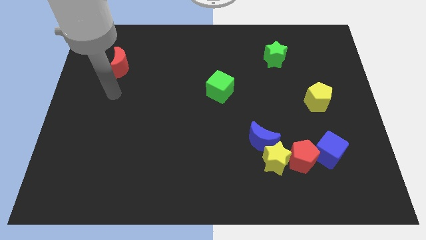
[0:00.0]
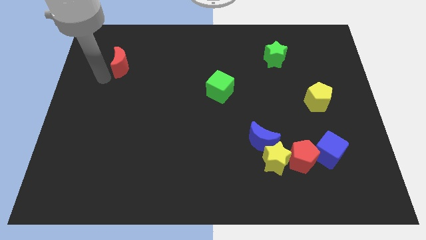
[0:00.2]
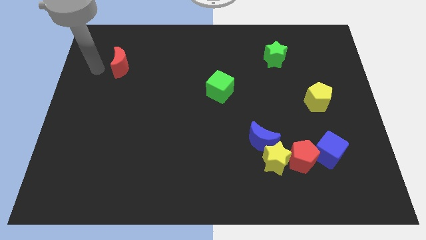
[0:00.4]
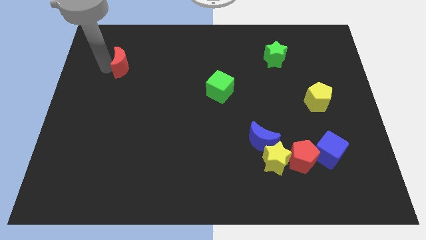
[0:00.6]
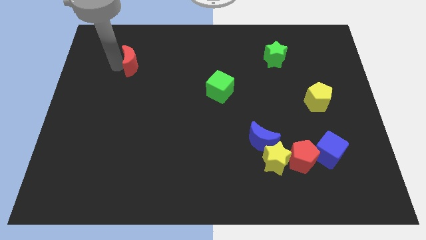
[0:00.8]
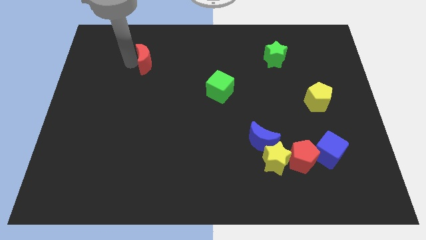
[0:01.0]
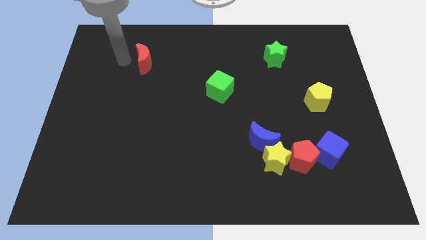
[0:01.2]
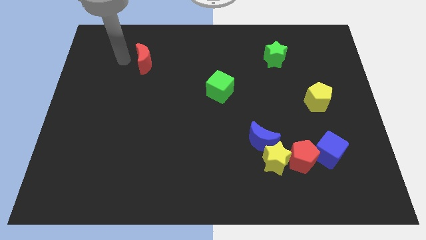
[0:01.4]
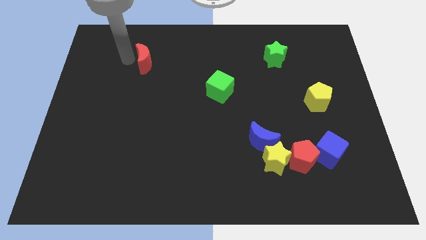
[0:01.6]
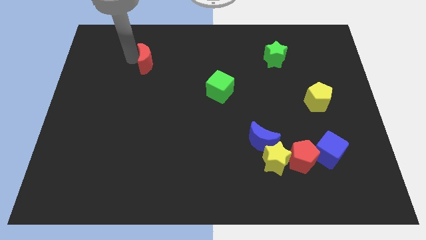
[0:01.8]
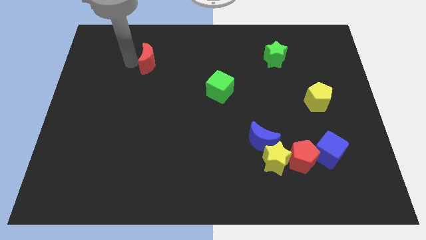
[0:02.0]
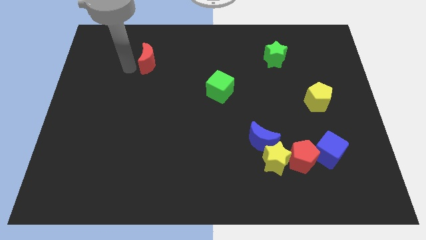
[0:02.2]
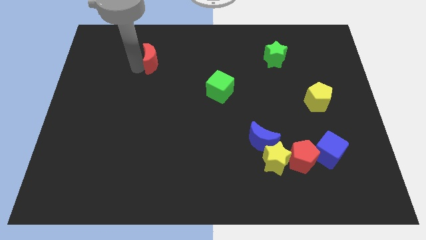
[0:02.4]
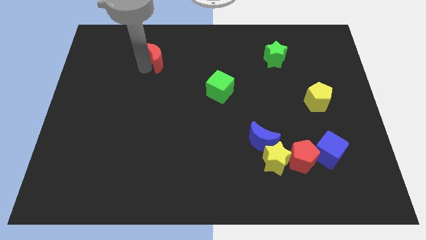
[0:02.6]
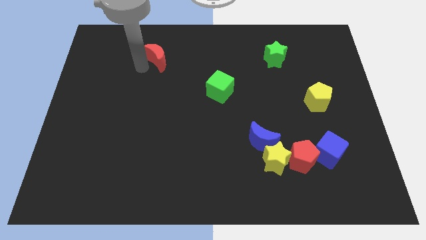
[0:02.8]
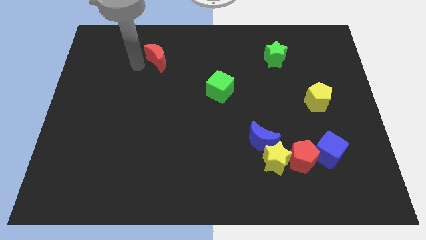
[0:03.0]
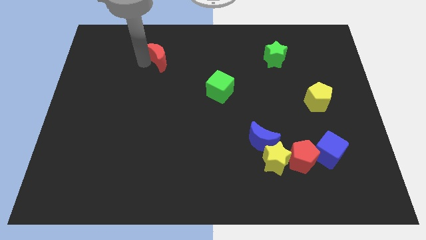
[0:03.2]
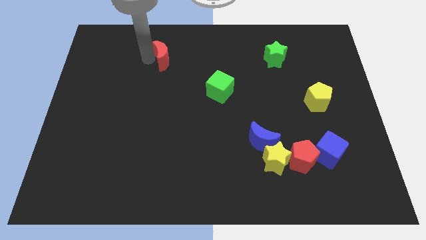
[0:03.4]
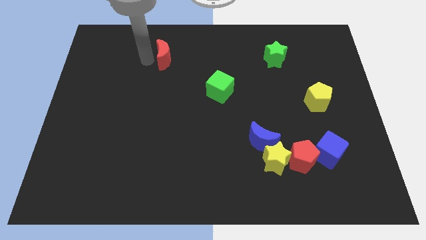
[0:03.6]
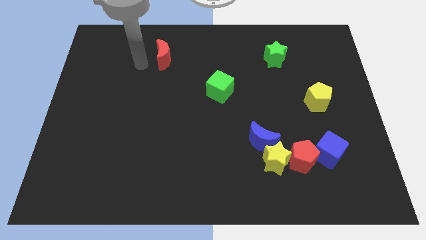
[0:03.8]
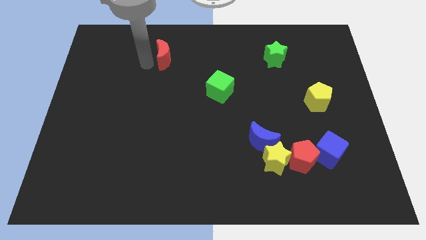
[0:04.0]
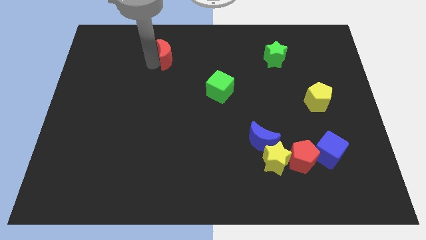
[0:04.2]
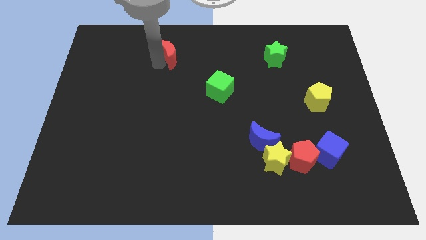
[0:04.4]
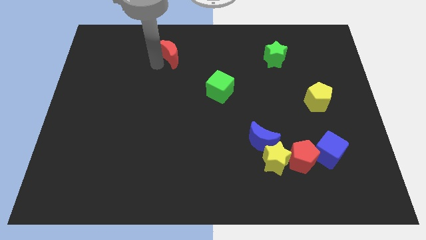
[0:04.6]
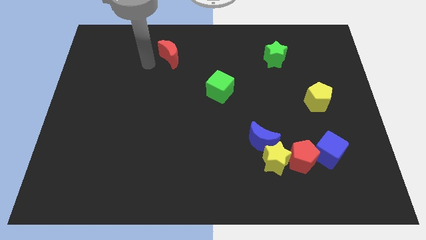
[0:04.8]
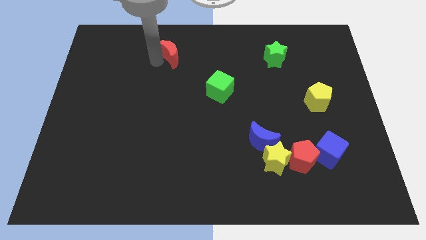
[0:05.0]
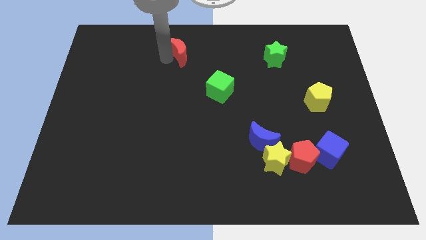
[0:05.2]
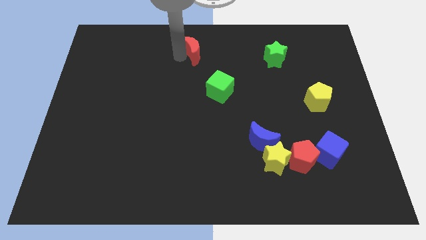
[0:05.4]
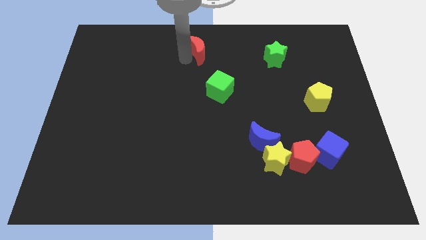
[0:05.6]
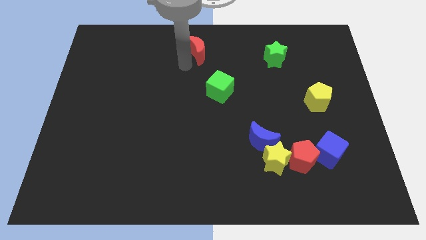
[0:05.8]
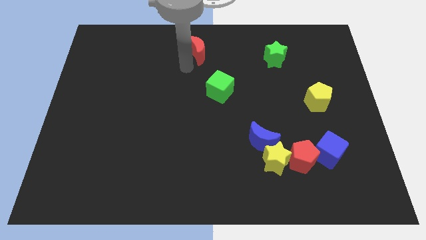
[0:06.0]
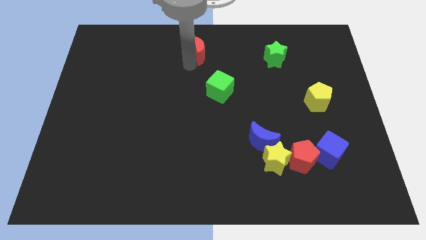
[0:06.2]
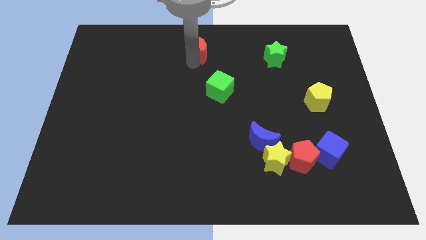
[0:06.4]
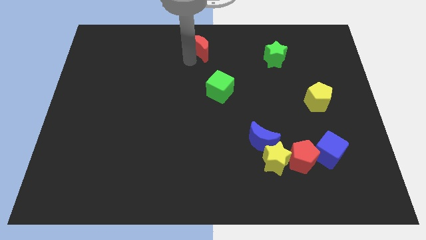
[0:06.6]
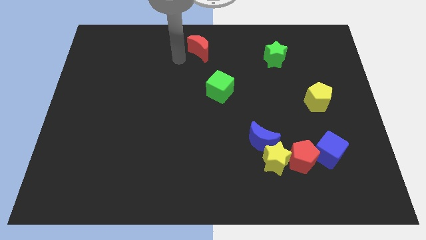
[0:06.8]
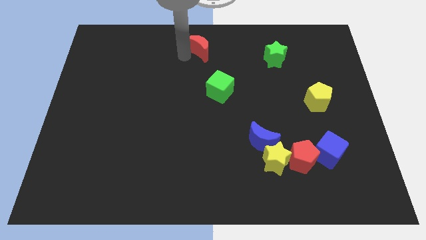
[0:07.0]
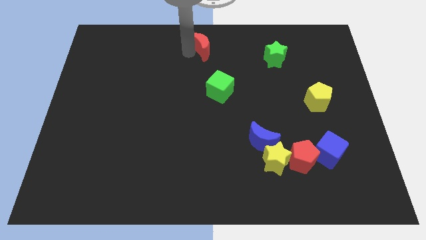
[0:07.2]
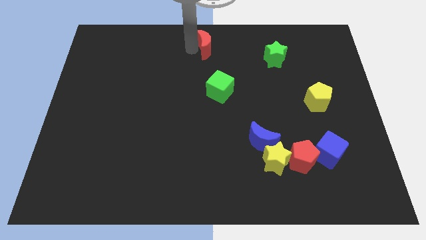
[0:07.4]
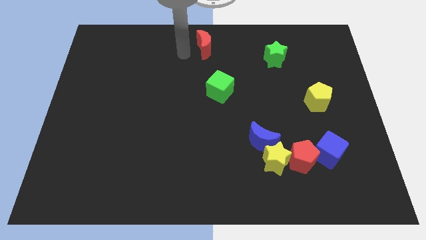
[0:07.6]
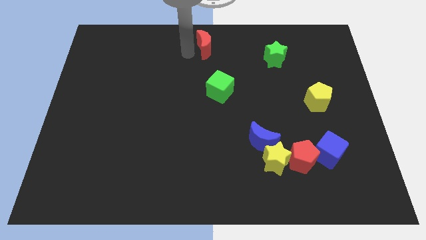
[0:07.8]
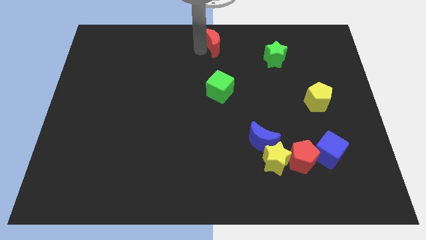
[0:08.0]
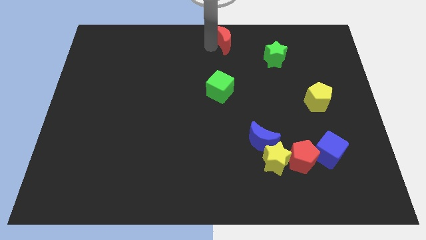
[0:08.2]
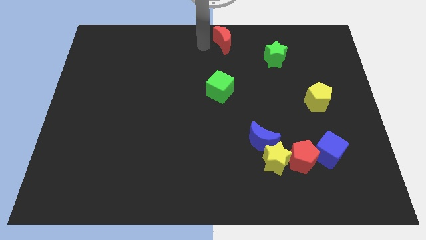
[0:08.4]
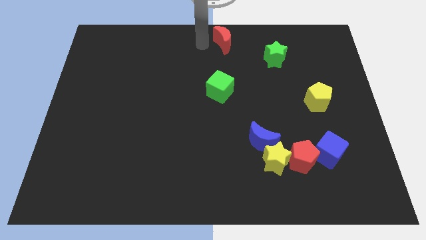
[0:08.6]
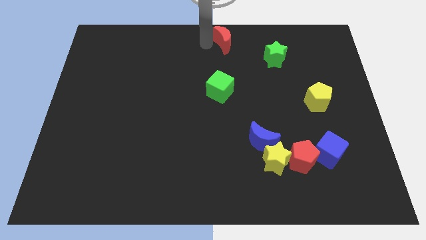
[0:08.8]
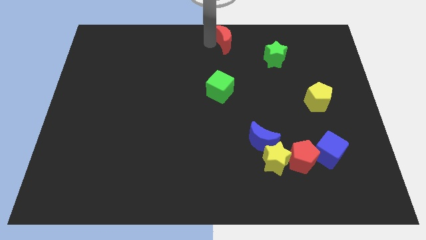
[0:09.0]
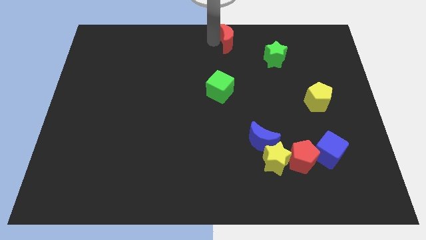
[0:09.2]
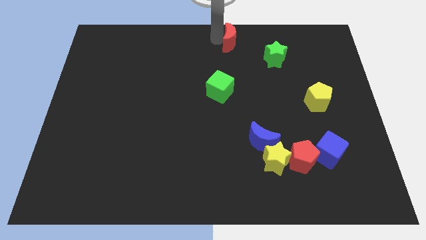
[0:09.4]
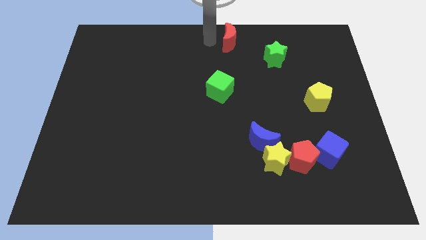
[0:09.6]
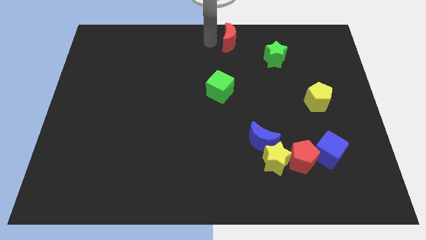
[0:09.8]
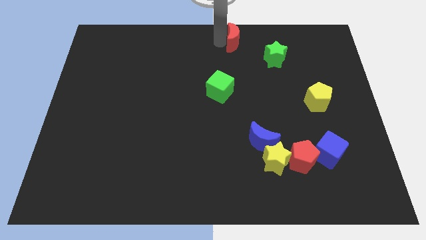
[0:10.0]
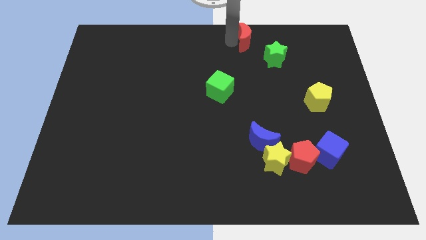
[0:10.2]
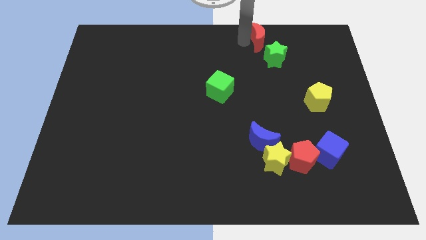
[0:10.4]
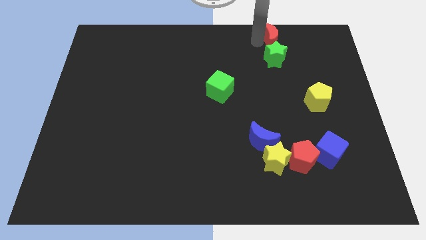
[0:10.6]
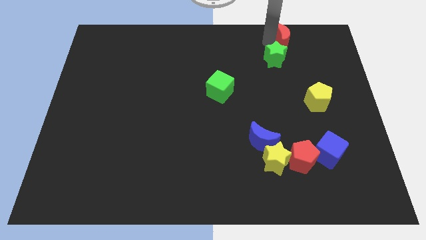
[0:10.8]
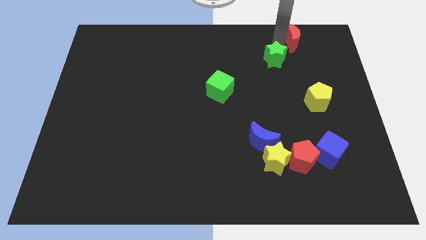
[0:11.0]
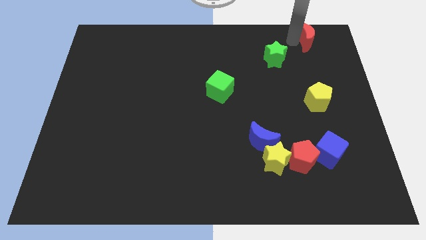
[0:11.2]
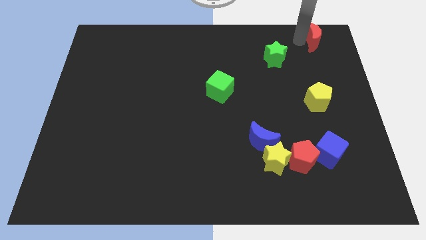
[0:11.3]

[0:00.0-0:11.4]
put the red moon to the top right
